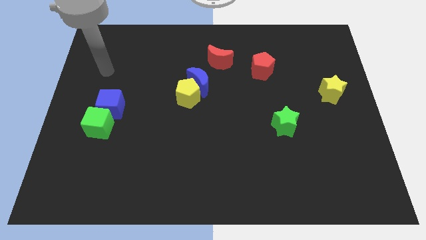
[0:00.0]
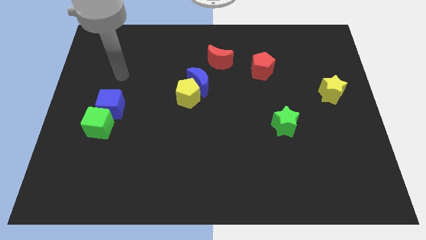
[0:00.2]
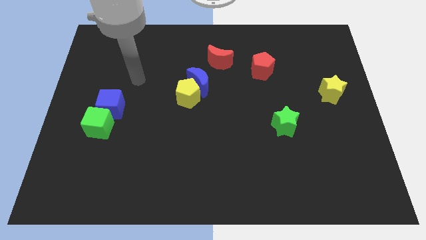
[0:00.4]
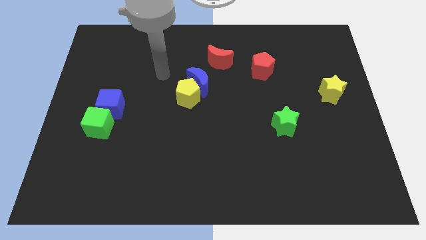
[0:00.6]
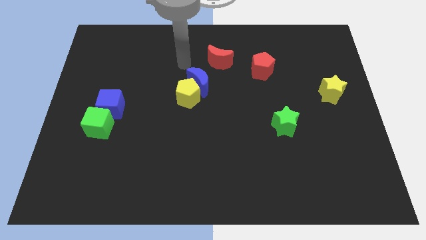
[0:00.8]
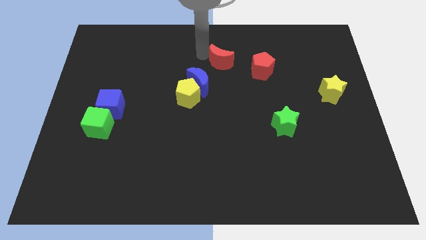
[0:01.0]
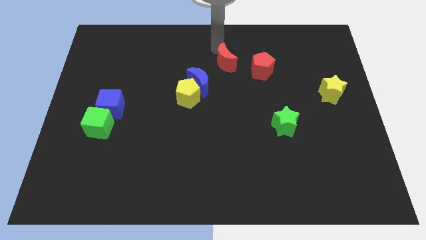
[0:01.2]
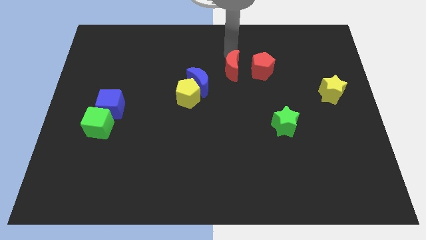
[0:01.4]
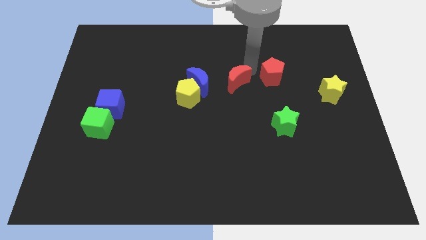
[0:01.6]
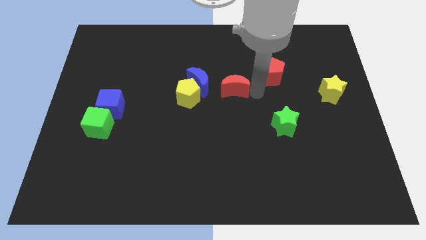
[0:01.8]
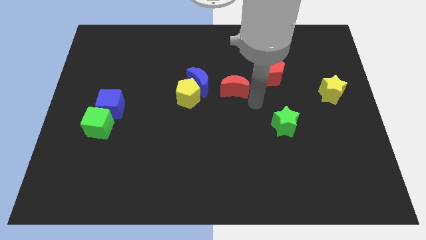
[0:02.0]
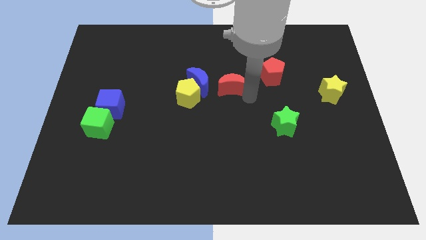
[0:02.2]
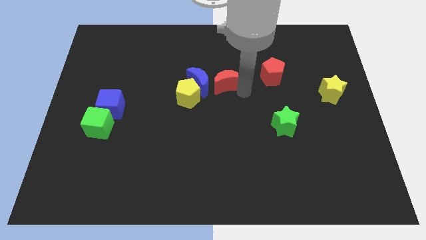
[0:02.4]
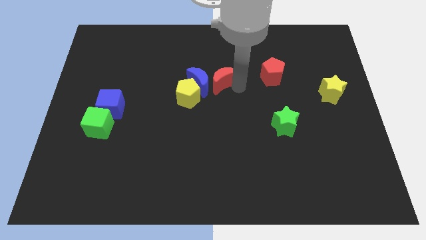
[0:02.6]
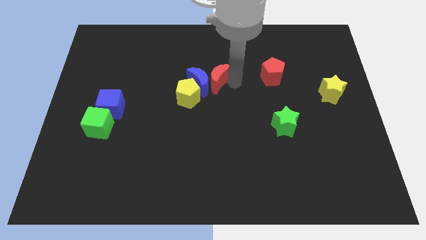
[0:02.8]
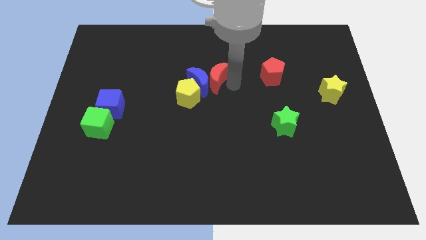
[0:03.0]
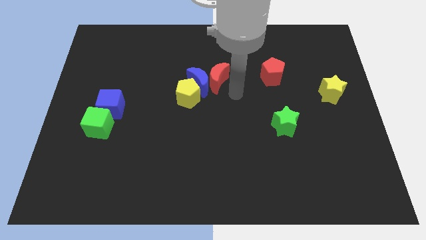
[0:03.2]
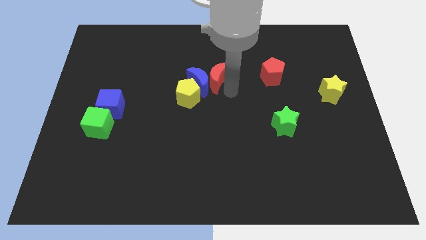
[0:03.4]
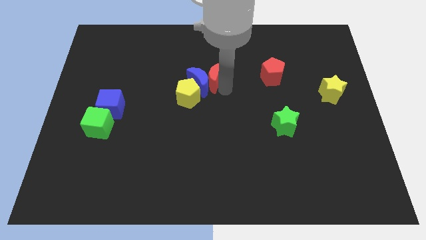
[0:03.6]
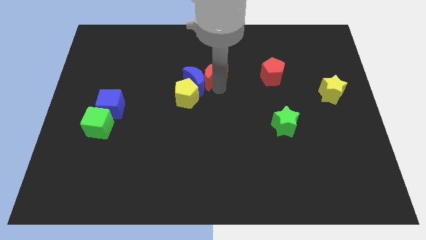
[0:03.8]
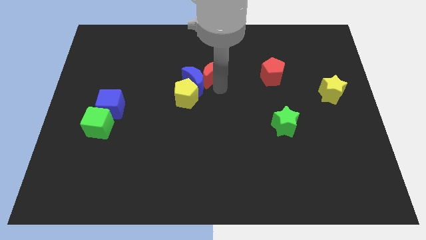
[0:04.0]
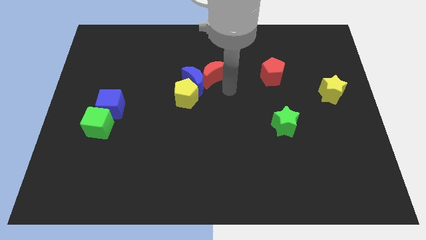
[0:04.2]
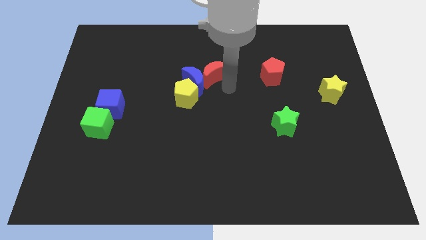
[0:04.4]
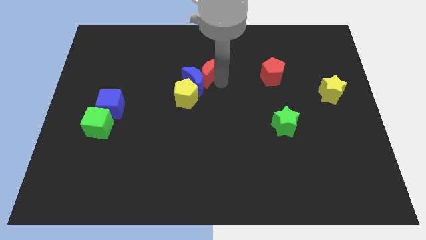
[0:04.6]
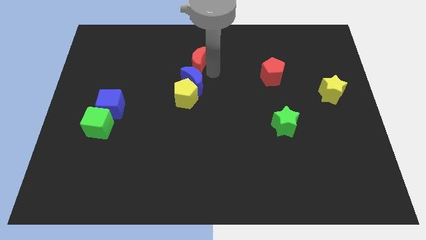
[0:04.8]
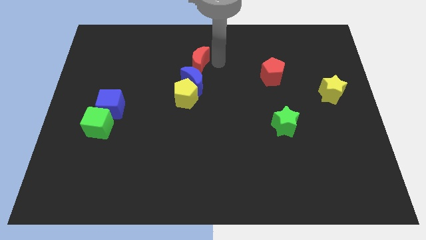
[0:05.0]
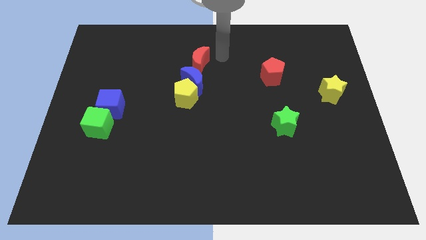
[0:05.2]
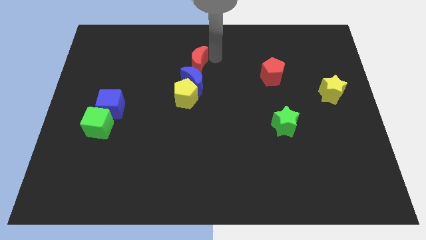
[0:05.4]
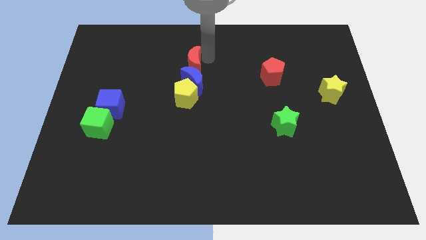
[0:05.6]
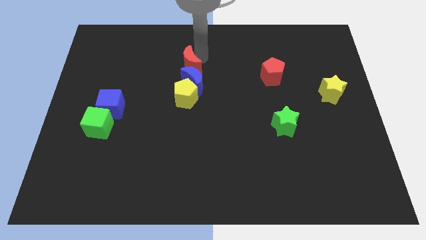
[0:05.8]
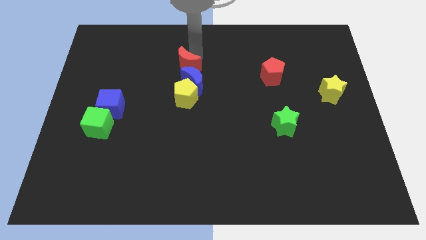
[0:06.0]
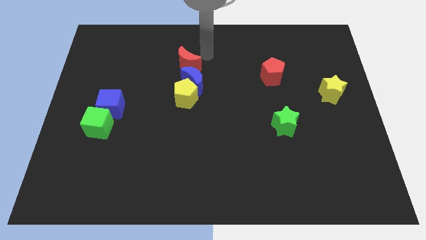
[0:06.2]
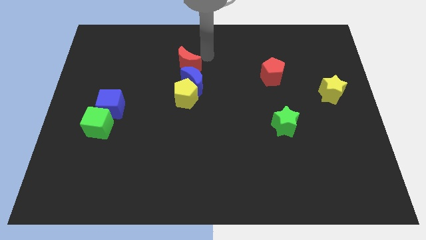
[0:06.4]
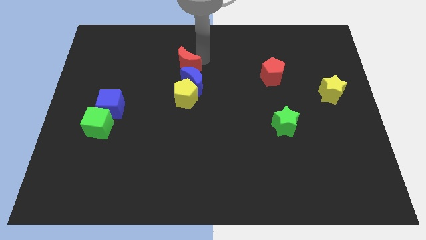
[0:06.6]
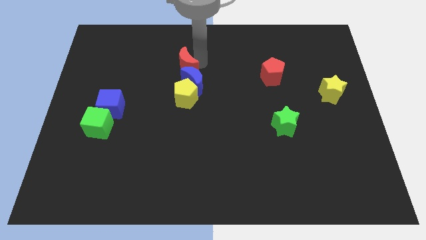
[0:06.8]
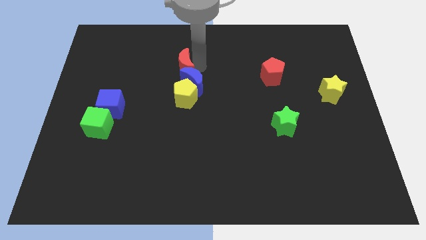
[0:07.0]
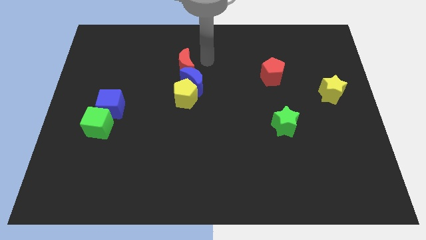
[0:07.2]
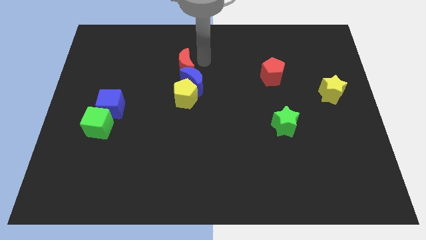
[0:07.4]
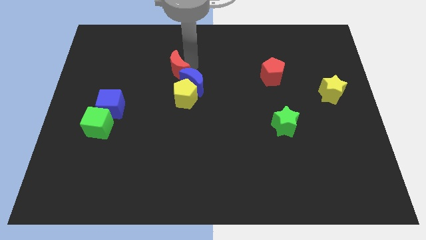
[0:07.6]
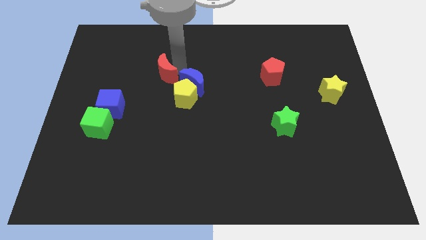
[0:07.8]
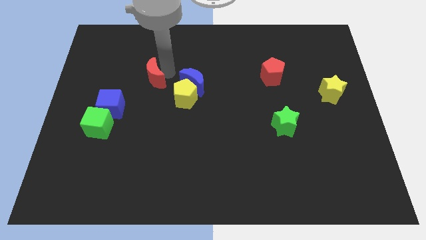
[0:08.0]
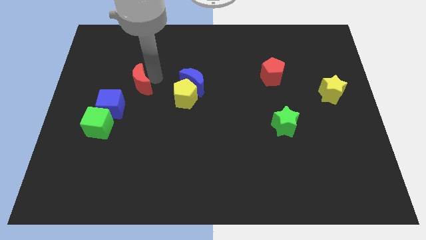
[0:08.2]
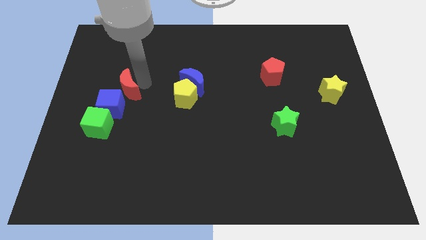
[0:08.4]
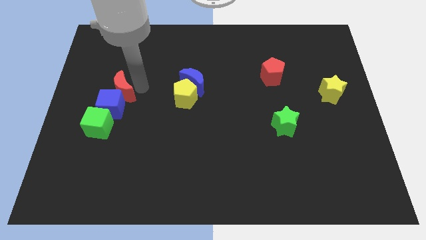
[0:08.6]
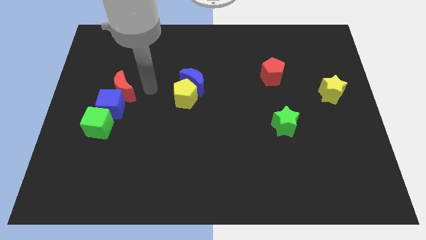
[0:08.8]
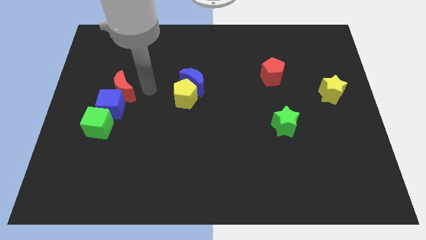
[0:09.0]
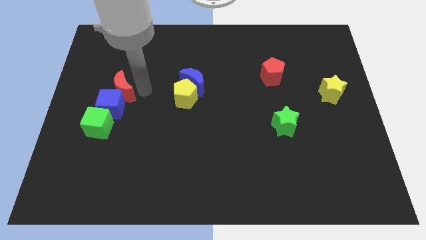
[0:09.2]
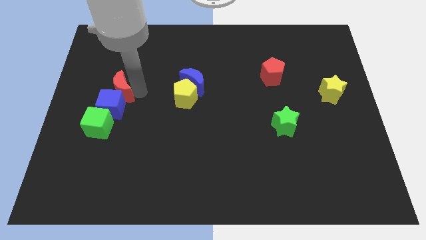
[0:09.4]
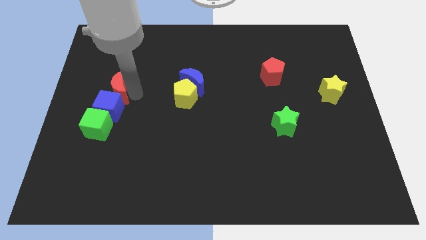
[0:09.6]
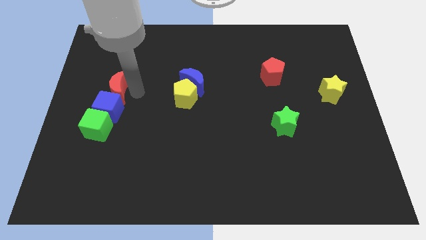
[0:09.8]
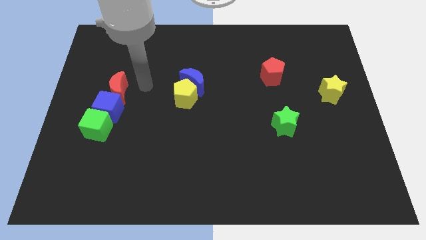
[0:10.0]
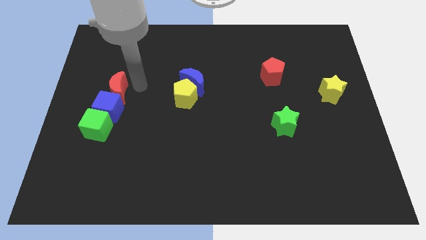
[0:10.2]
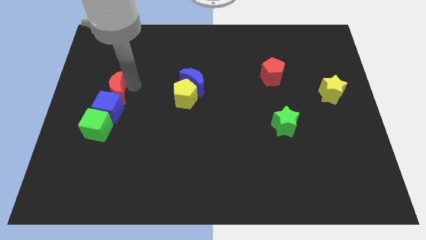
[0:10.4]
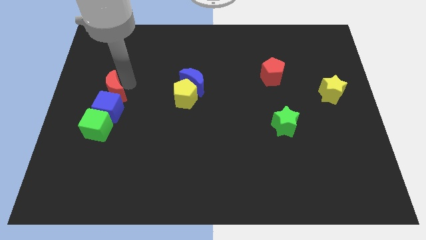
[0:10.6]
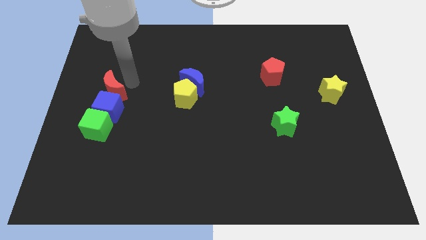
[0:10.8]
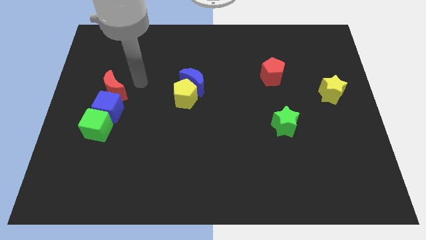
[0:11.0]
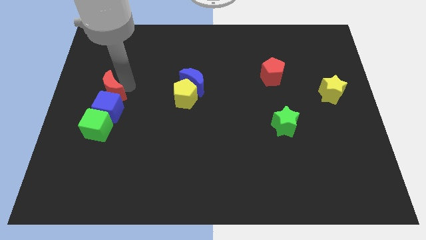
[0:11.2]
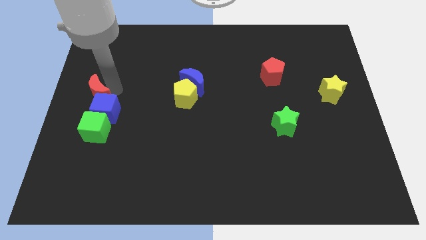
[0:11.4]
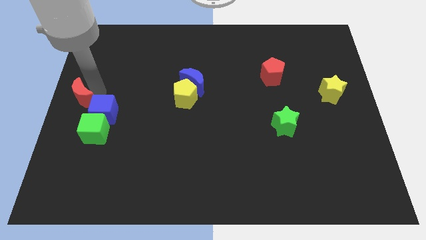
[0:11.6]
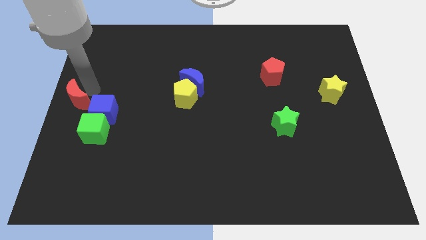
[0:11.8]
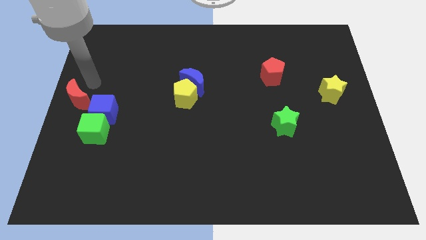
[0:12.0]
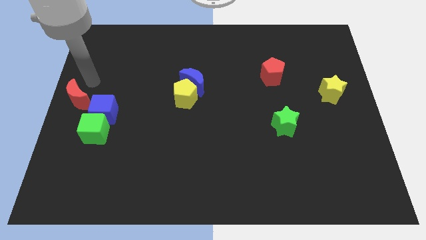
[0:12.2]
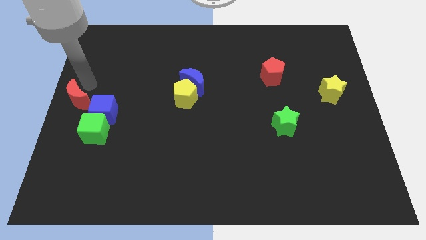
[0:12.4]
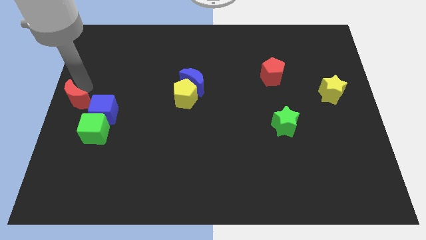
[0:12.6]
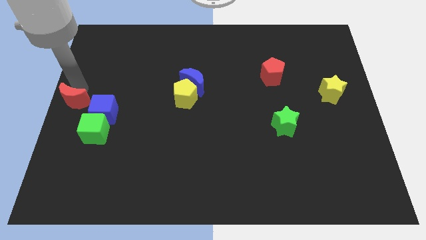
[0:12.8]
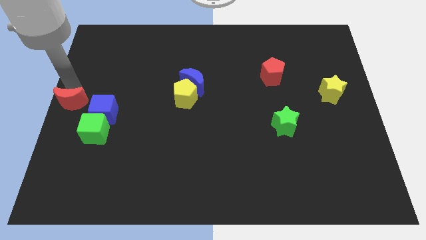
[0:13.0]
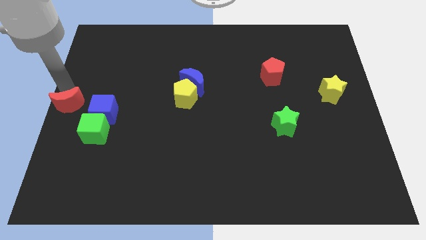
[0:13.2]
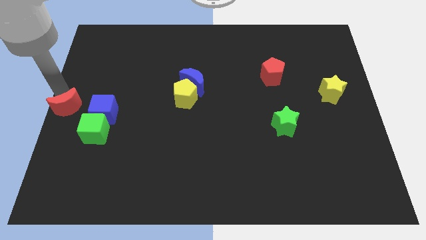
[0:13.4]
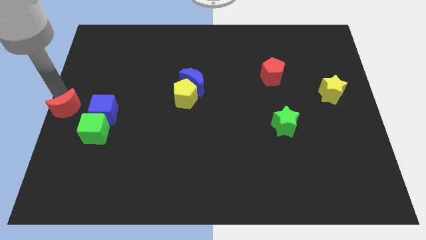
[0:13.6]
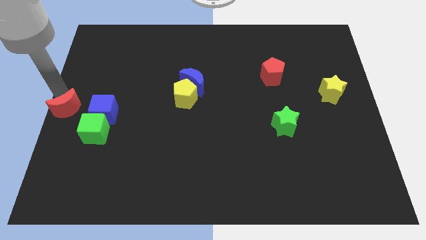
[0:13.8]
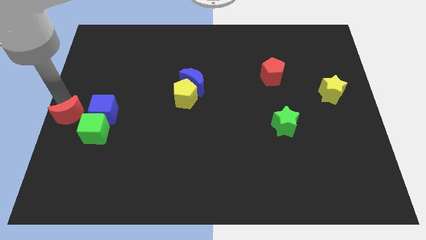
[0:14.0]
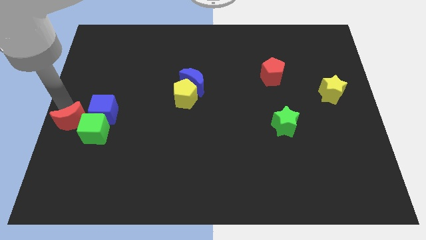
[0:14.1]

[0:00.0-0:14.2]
push the red moon diagonally down and to the left of the blue cube
